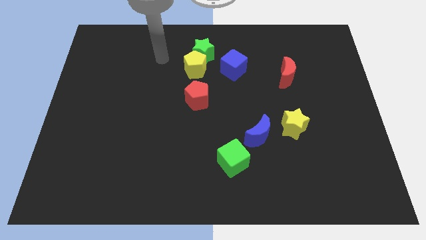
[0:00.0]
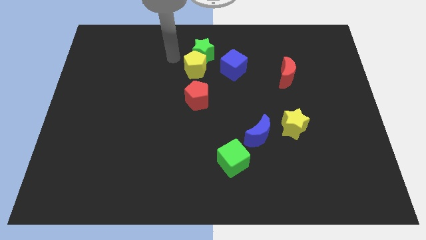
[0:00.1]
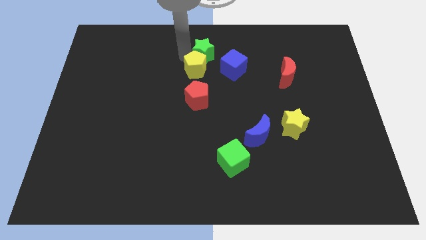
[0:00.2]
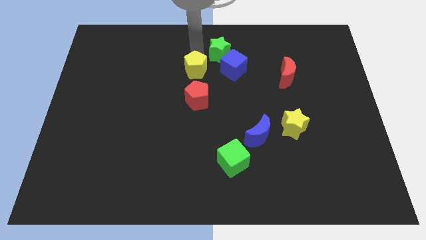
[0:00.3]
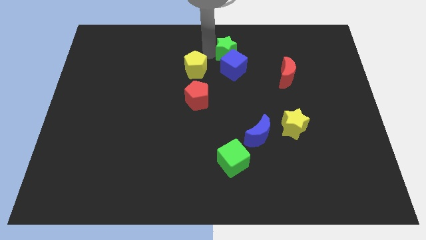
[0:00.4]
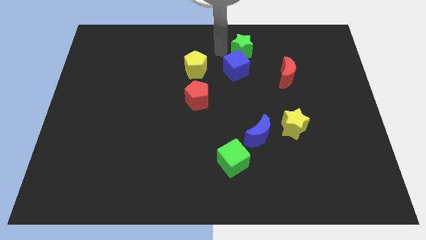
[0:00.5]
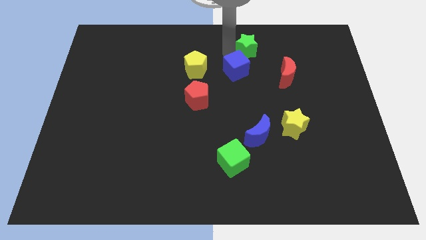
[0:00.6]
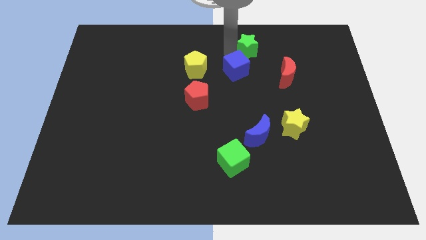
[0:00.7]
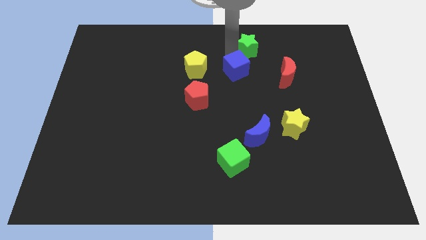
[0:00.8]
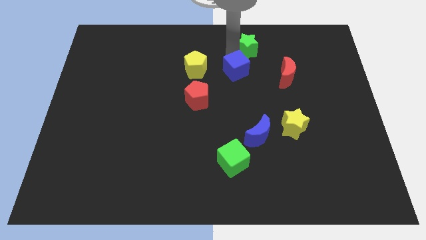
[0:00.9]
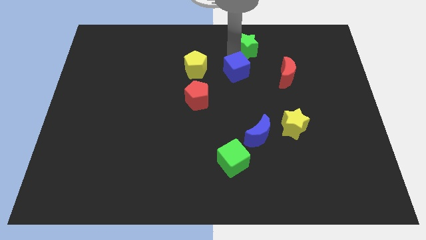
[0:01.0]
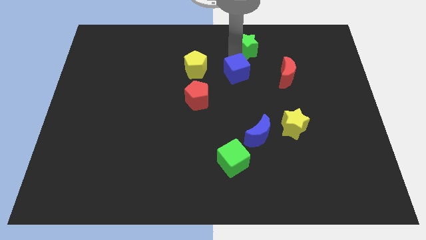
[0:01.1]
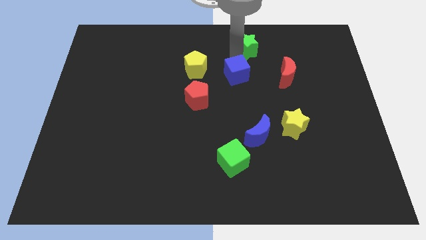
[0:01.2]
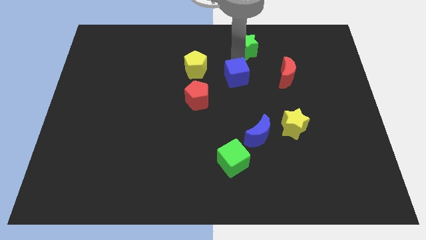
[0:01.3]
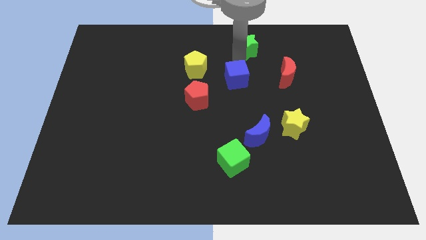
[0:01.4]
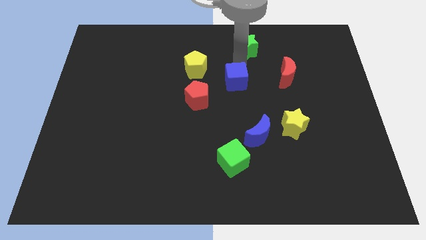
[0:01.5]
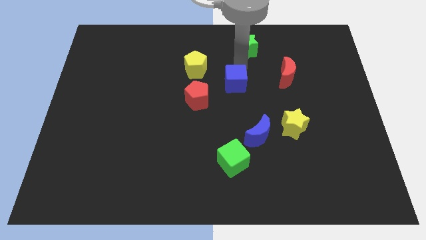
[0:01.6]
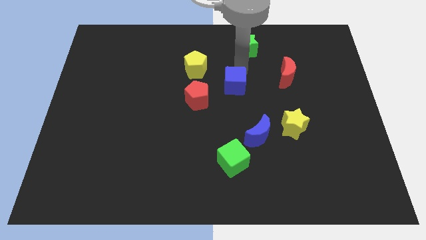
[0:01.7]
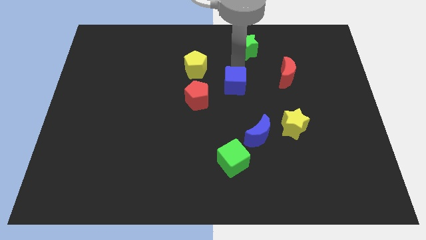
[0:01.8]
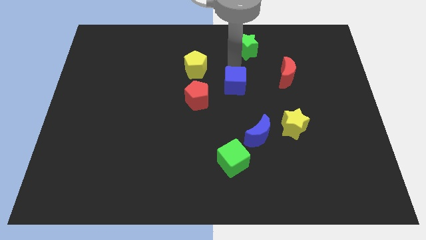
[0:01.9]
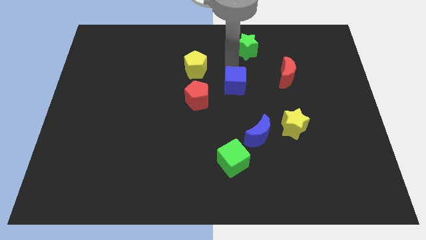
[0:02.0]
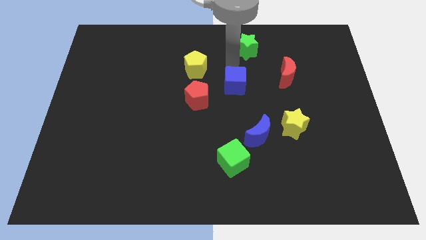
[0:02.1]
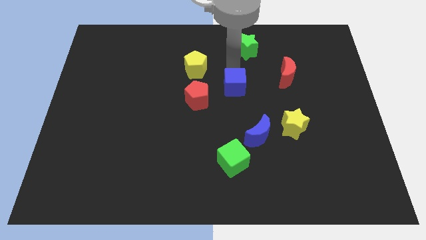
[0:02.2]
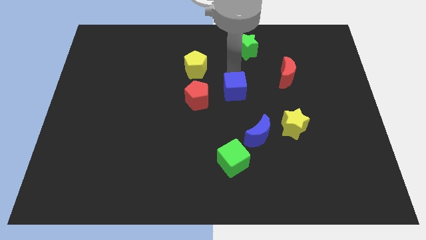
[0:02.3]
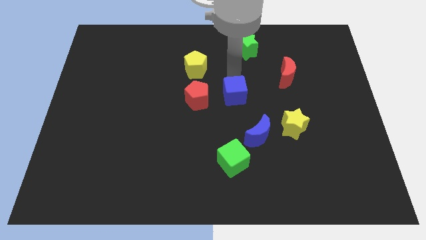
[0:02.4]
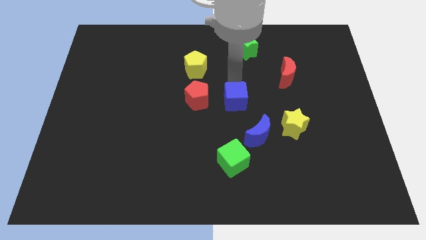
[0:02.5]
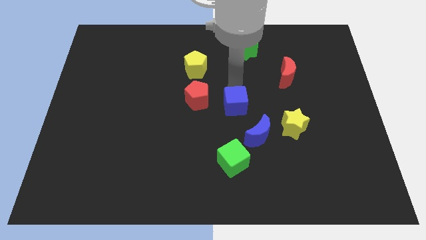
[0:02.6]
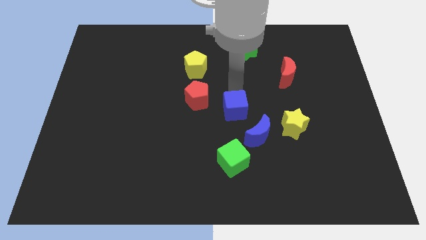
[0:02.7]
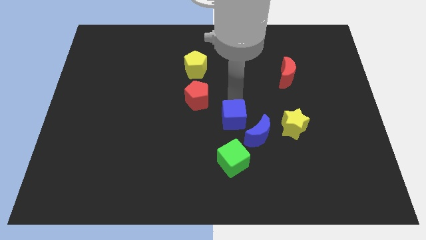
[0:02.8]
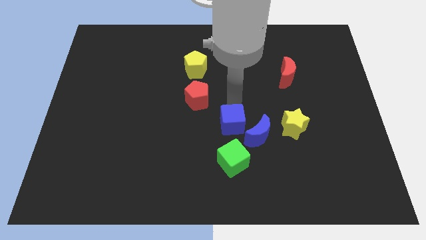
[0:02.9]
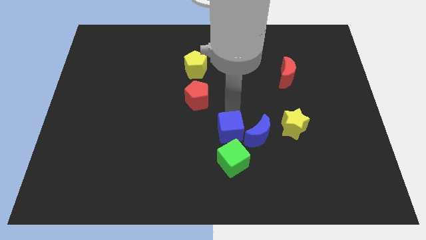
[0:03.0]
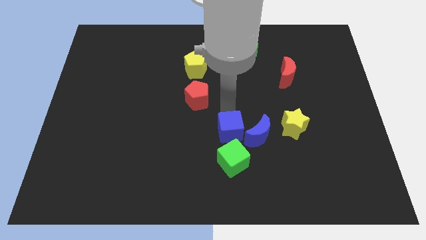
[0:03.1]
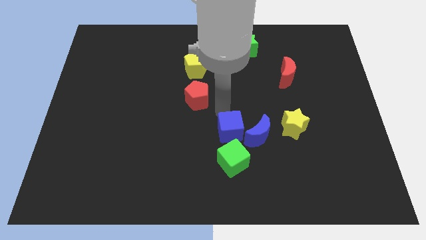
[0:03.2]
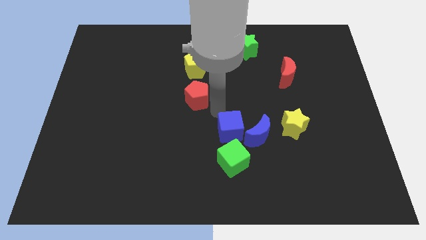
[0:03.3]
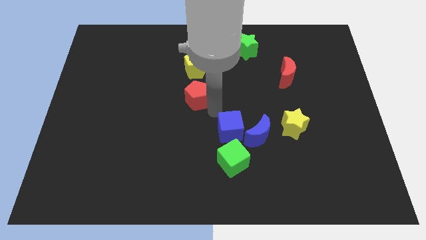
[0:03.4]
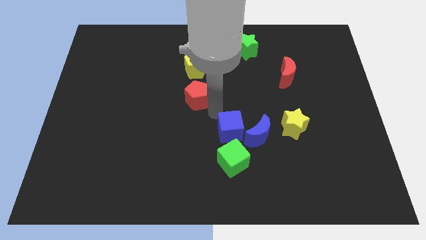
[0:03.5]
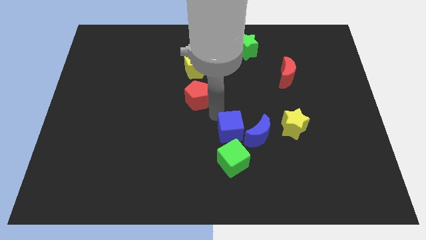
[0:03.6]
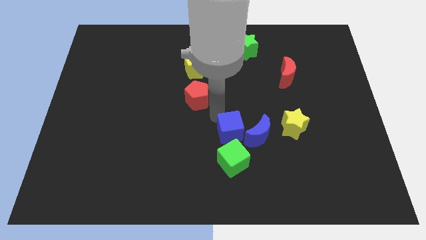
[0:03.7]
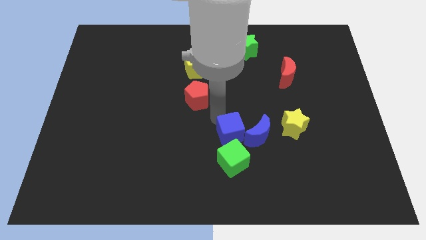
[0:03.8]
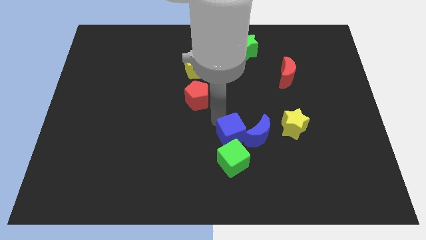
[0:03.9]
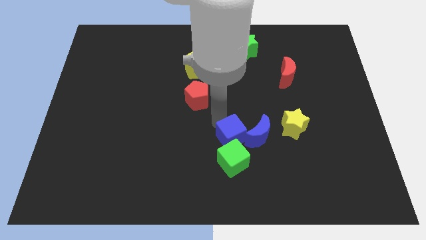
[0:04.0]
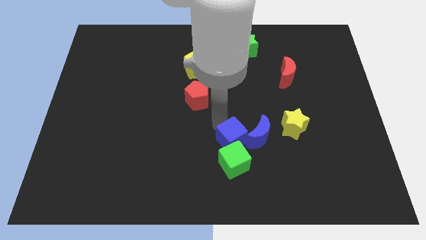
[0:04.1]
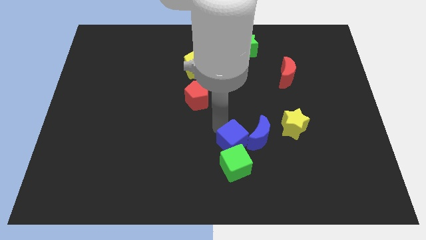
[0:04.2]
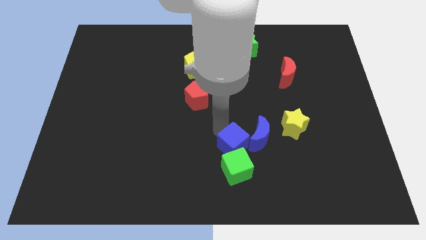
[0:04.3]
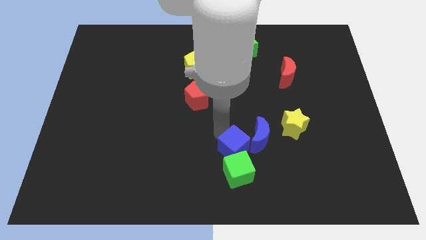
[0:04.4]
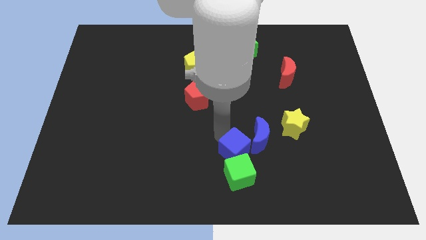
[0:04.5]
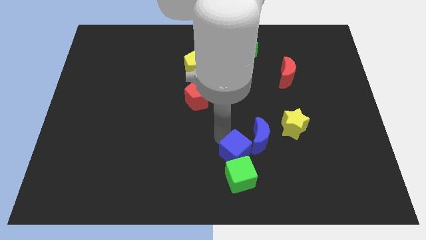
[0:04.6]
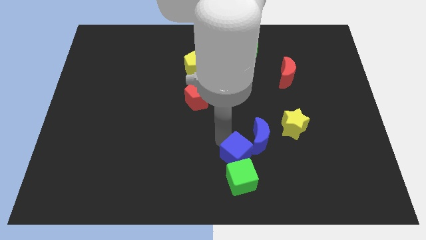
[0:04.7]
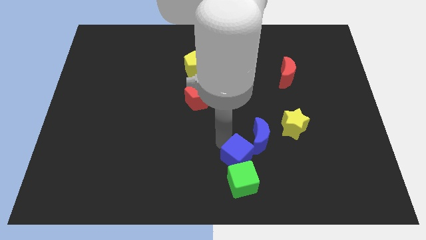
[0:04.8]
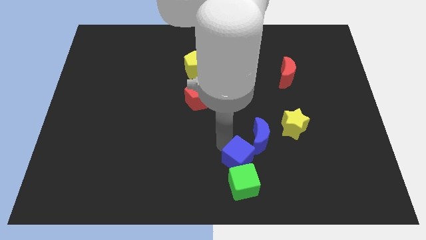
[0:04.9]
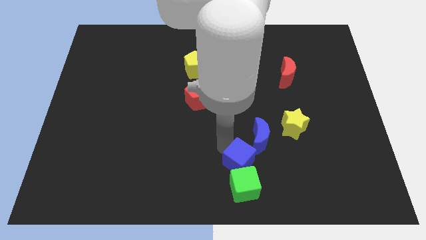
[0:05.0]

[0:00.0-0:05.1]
push the blue cube below the blue moon

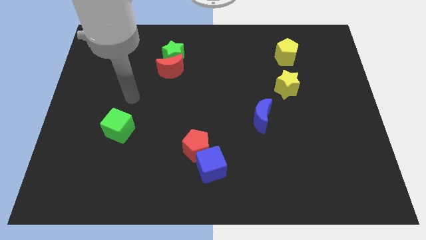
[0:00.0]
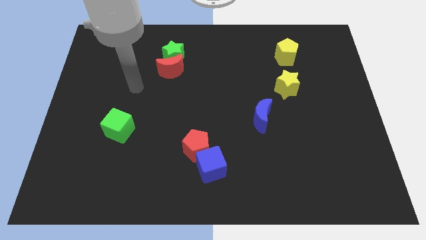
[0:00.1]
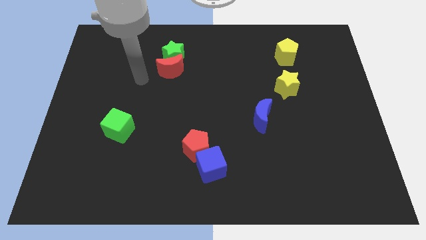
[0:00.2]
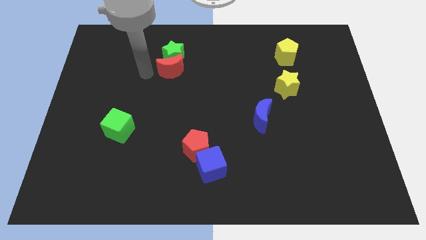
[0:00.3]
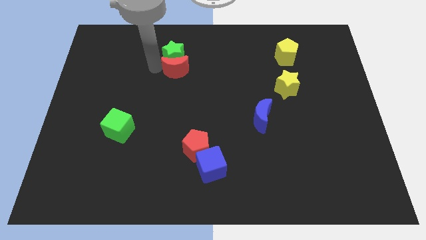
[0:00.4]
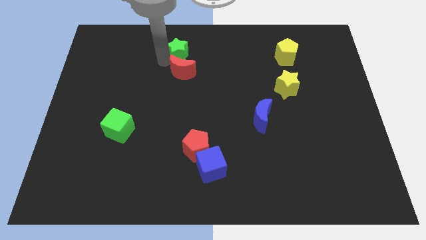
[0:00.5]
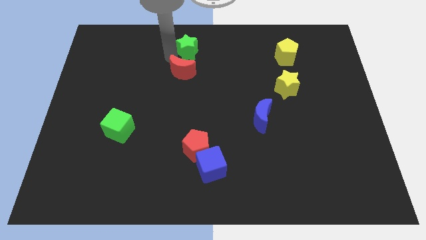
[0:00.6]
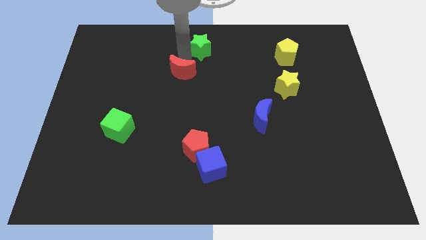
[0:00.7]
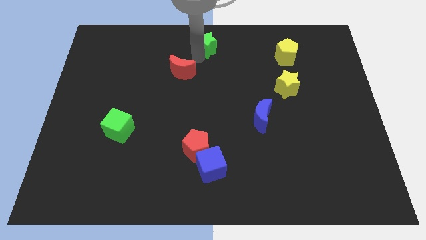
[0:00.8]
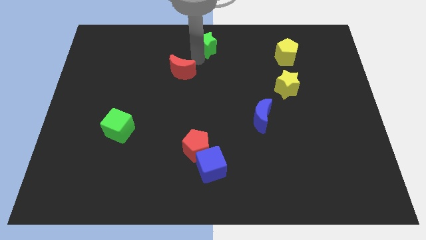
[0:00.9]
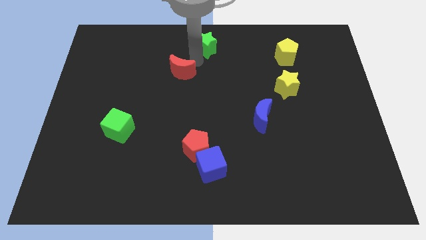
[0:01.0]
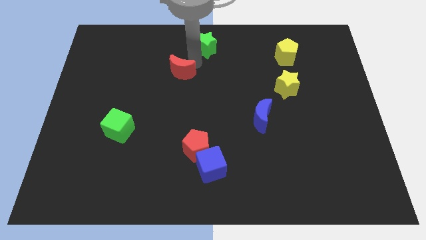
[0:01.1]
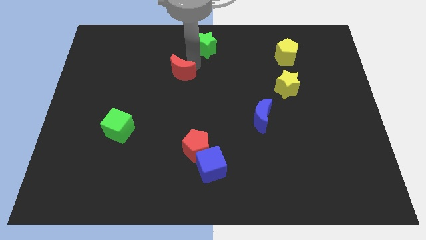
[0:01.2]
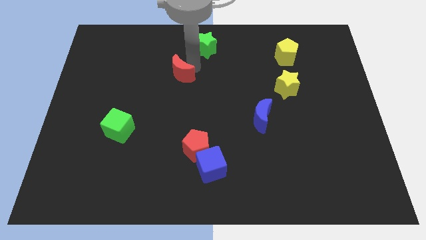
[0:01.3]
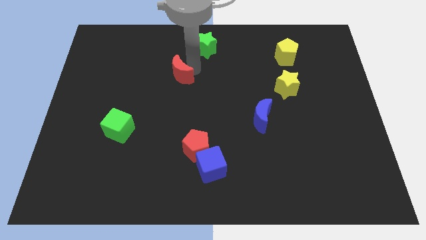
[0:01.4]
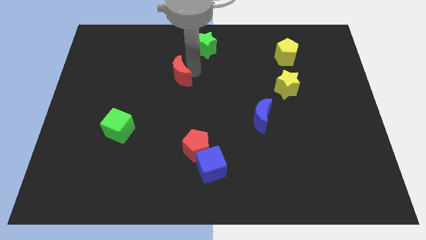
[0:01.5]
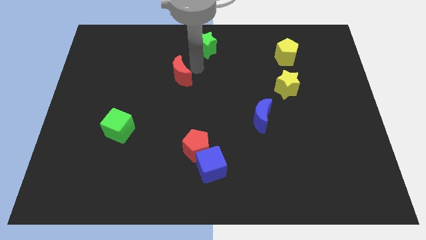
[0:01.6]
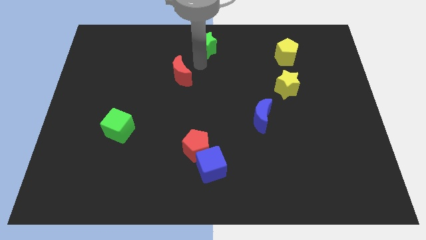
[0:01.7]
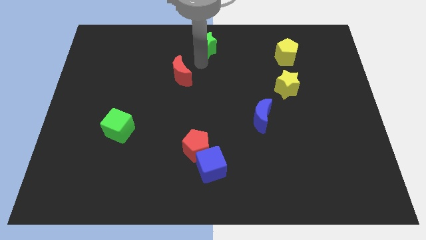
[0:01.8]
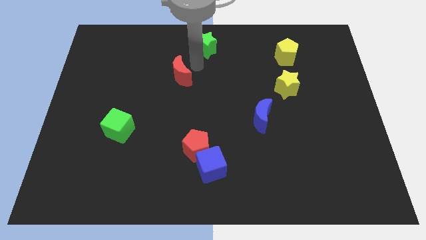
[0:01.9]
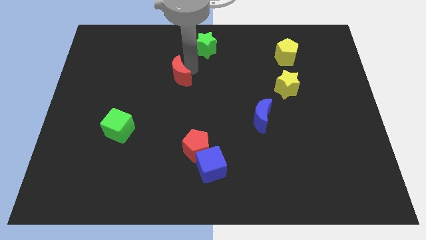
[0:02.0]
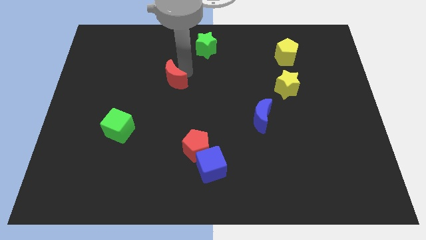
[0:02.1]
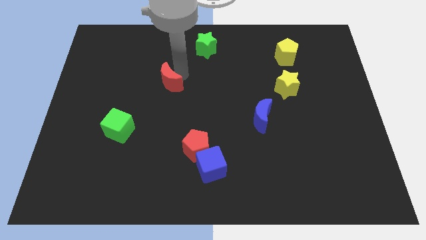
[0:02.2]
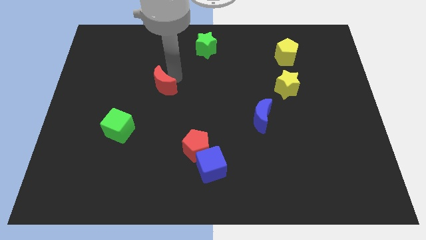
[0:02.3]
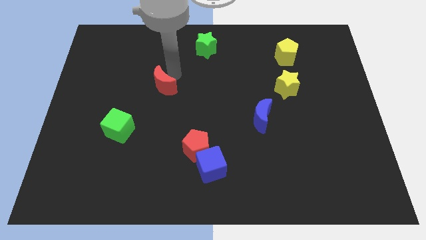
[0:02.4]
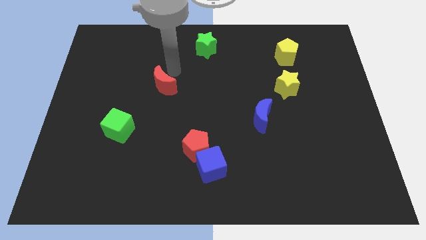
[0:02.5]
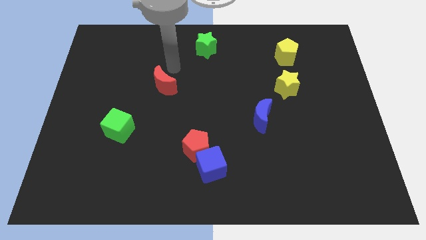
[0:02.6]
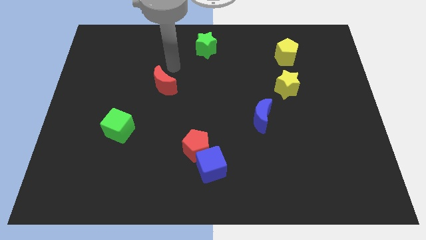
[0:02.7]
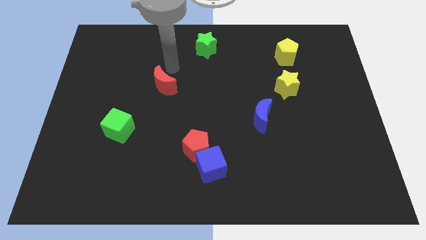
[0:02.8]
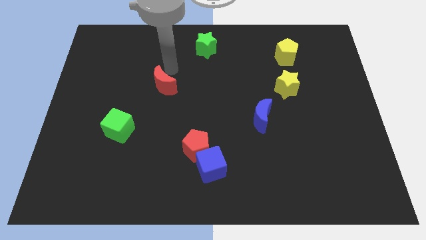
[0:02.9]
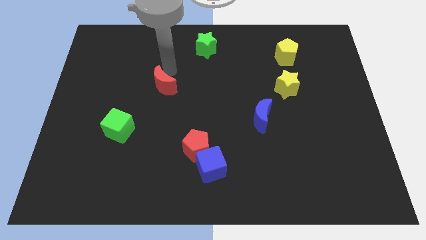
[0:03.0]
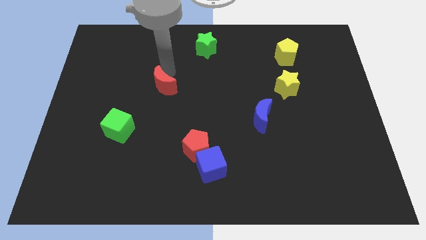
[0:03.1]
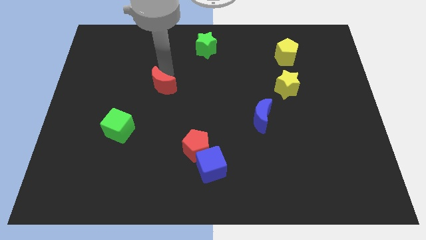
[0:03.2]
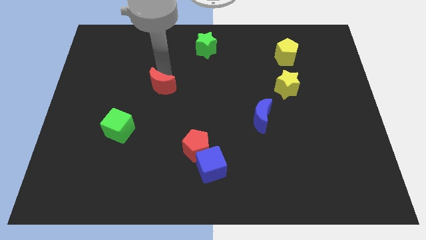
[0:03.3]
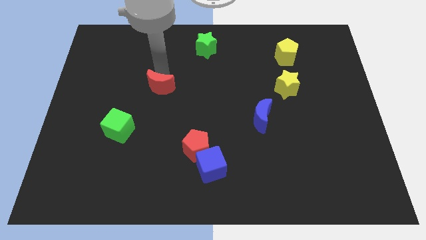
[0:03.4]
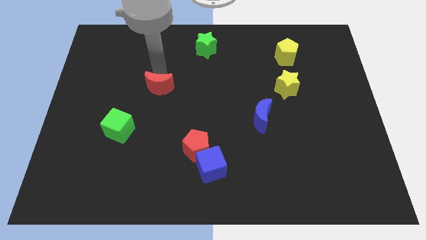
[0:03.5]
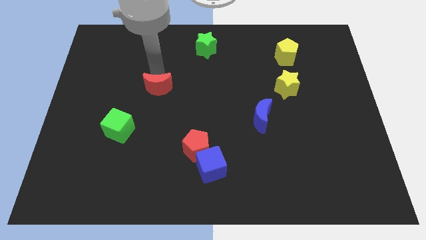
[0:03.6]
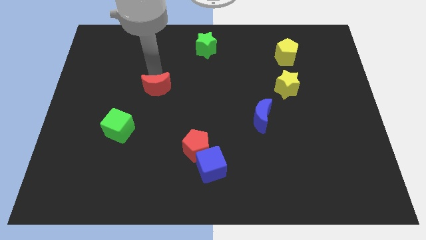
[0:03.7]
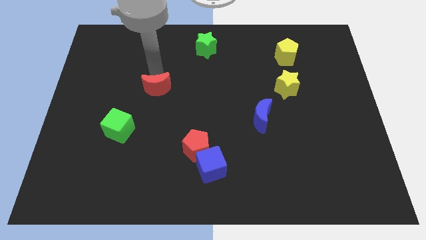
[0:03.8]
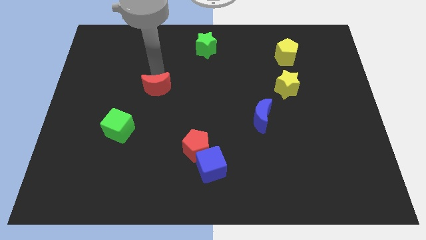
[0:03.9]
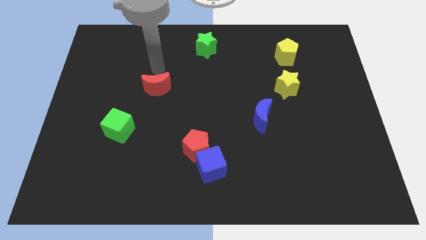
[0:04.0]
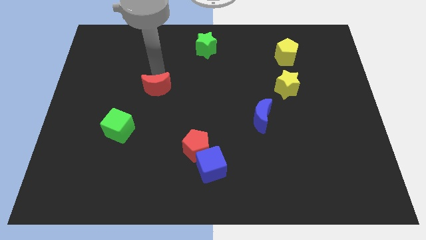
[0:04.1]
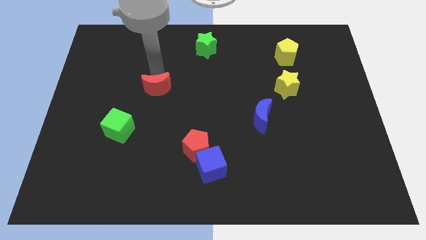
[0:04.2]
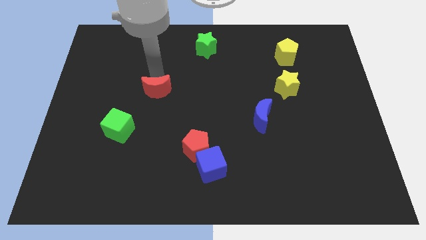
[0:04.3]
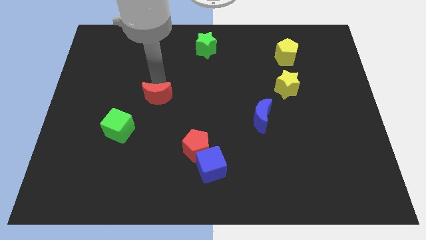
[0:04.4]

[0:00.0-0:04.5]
slide the red moon to the top right side of the green cube
